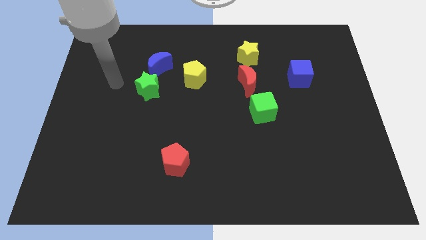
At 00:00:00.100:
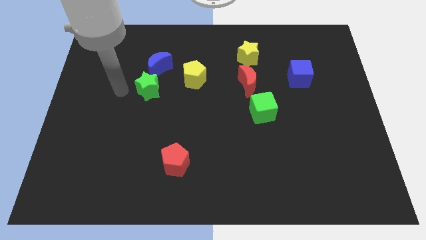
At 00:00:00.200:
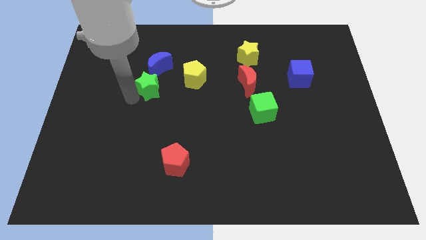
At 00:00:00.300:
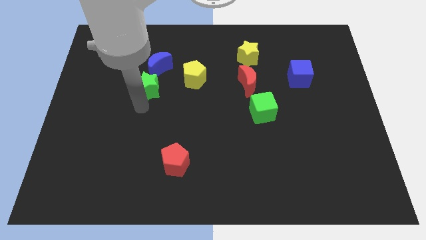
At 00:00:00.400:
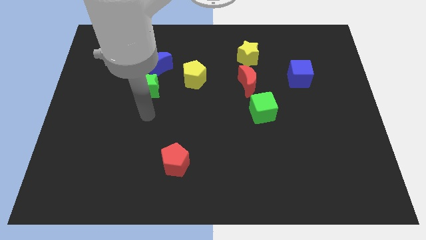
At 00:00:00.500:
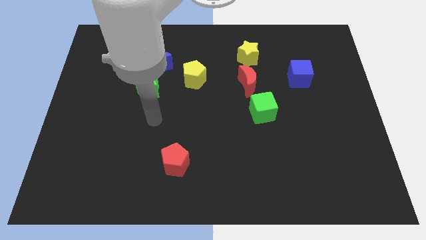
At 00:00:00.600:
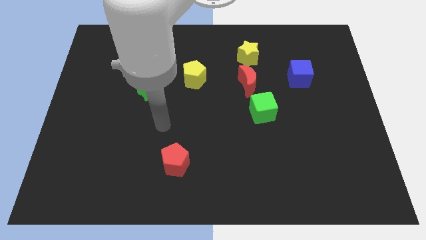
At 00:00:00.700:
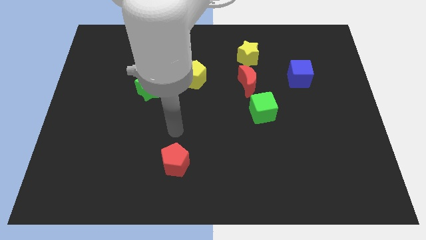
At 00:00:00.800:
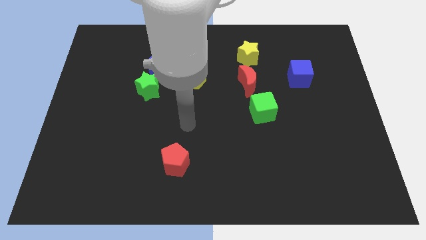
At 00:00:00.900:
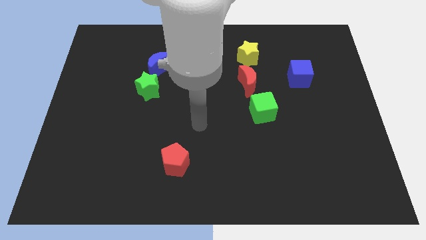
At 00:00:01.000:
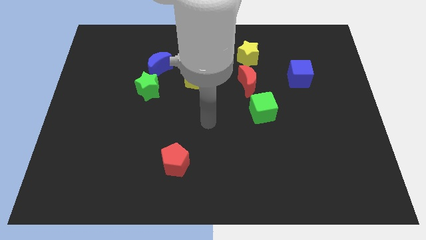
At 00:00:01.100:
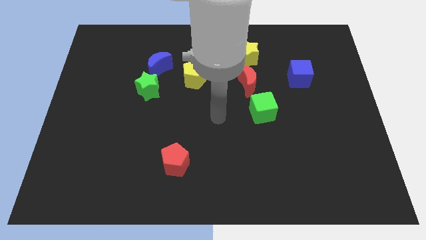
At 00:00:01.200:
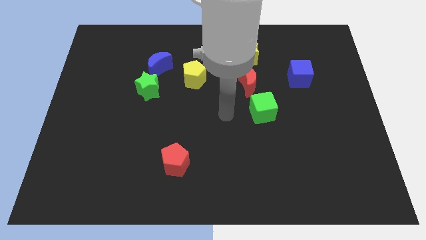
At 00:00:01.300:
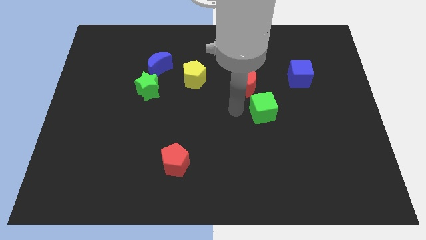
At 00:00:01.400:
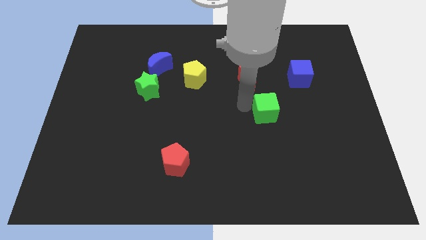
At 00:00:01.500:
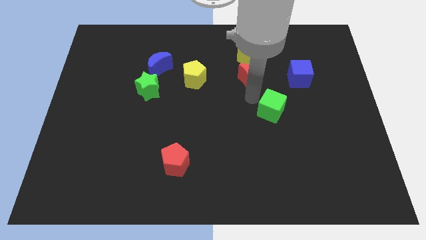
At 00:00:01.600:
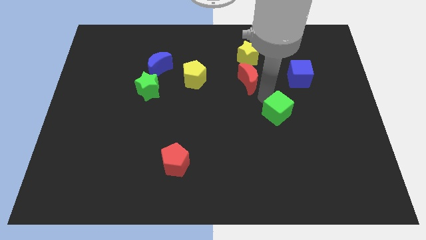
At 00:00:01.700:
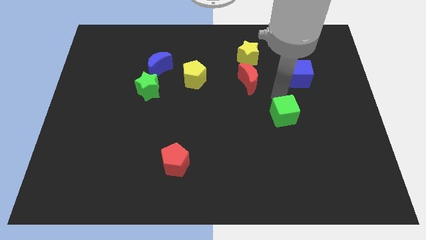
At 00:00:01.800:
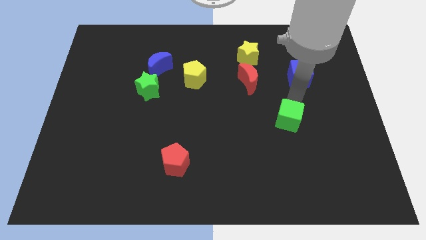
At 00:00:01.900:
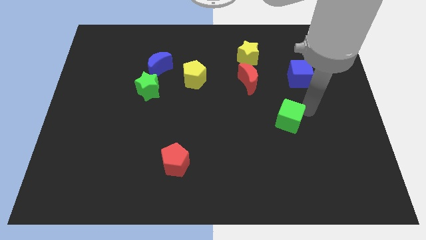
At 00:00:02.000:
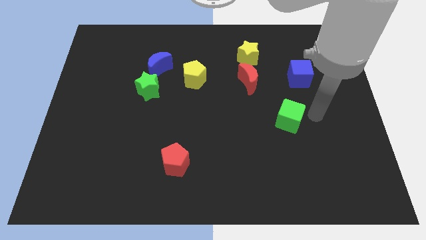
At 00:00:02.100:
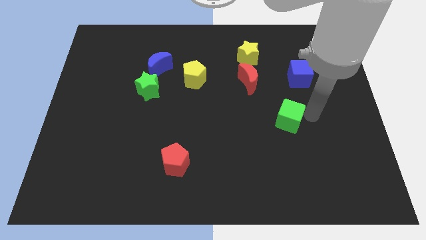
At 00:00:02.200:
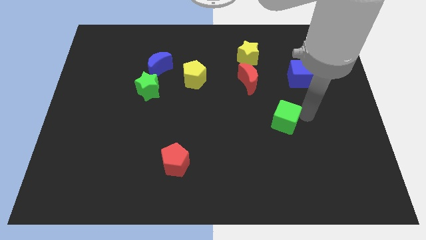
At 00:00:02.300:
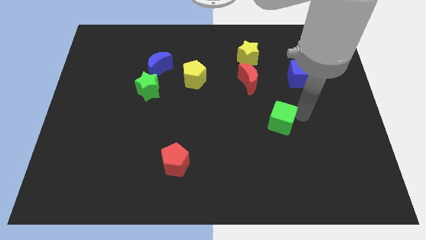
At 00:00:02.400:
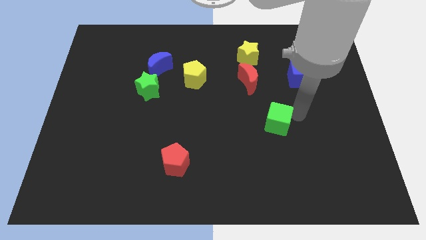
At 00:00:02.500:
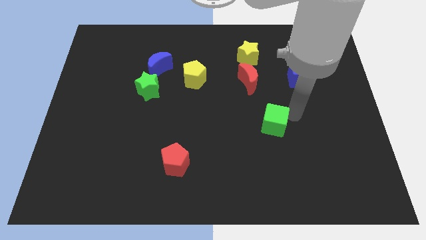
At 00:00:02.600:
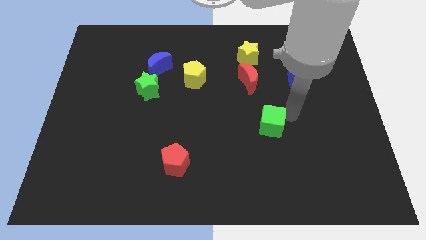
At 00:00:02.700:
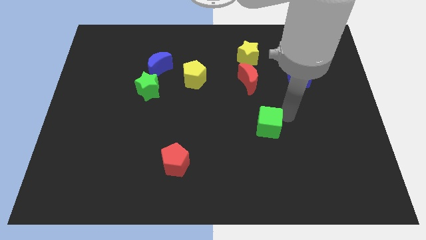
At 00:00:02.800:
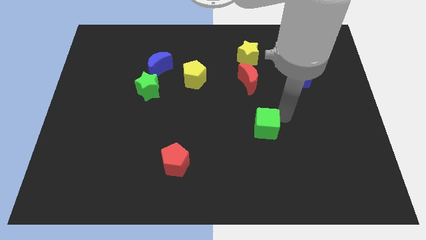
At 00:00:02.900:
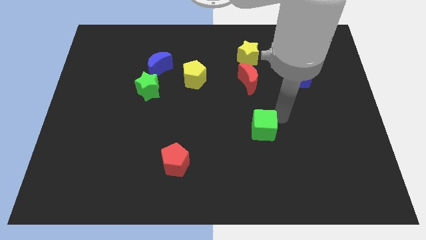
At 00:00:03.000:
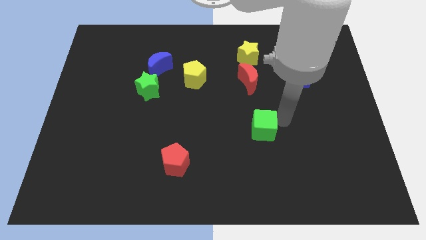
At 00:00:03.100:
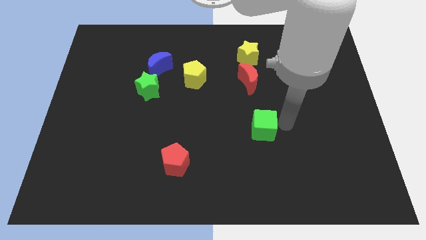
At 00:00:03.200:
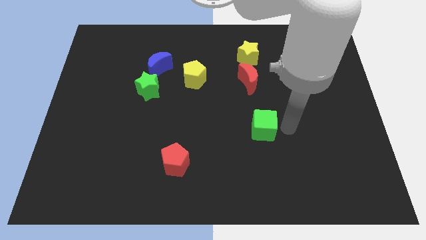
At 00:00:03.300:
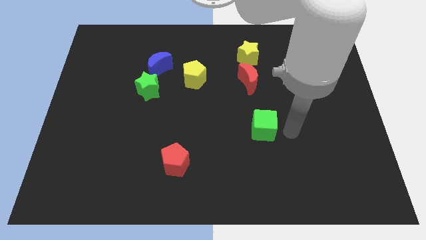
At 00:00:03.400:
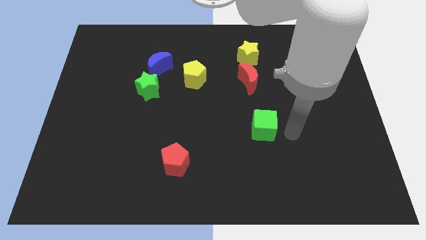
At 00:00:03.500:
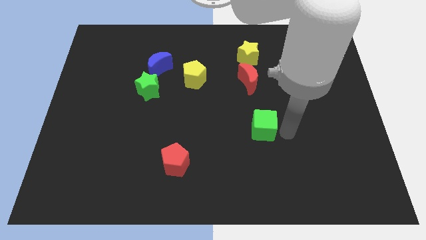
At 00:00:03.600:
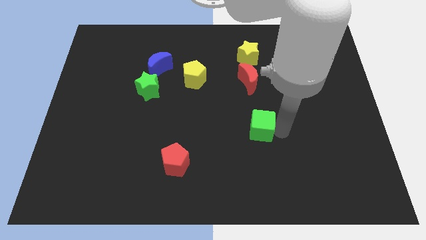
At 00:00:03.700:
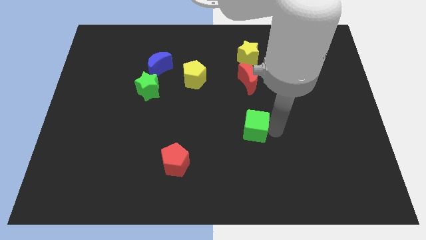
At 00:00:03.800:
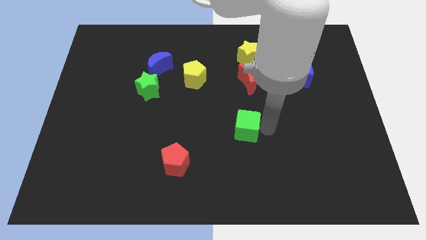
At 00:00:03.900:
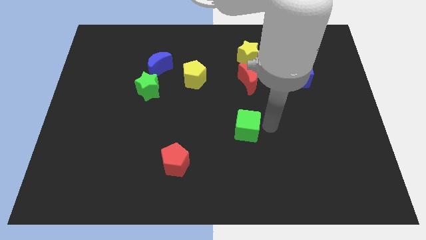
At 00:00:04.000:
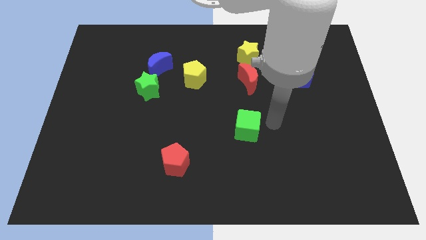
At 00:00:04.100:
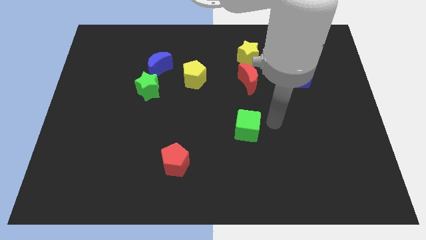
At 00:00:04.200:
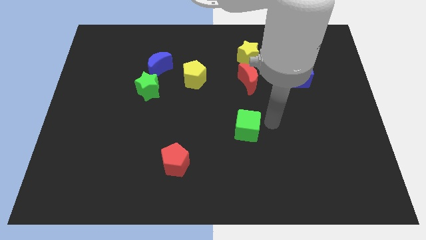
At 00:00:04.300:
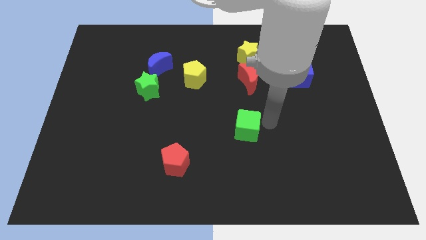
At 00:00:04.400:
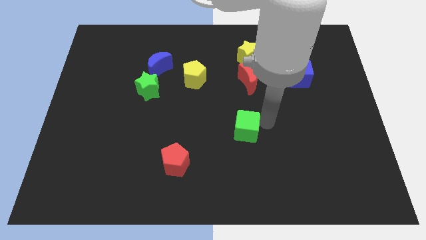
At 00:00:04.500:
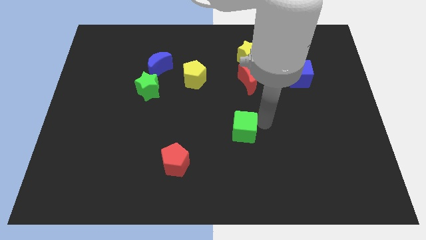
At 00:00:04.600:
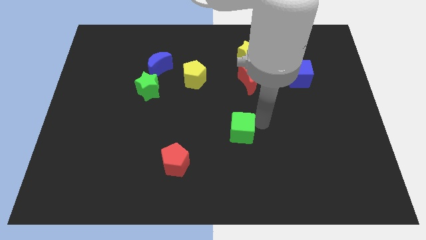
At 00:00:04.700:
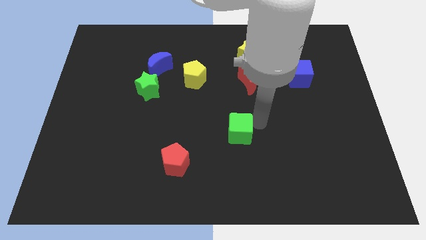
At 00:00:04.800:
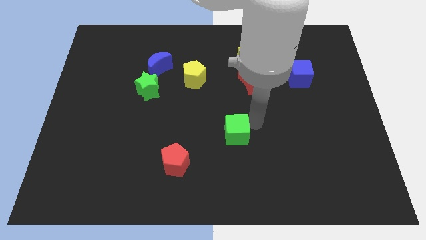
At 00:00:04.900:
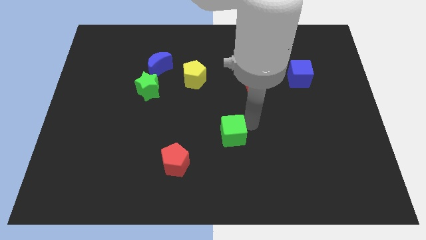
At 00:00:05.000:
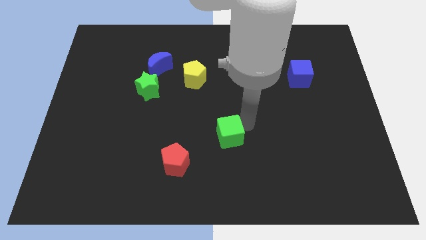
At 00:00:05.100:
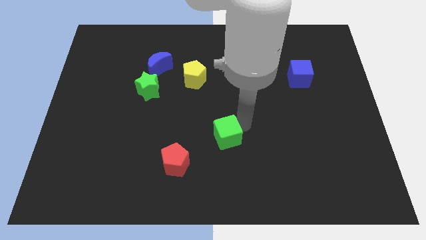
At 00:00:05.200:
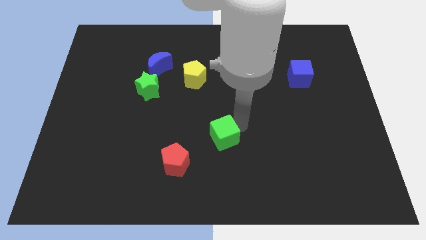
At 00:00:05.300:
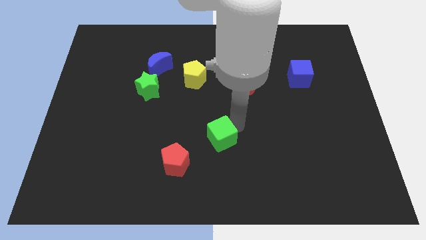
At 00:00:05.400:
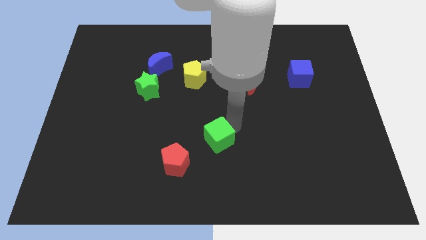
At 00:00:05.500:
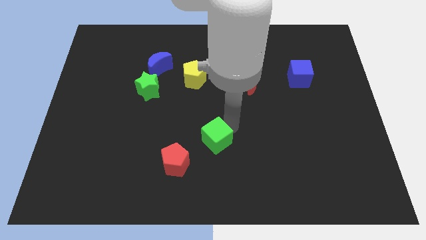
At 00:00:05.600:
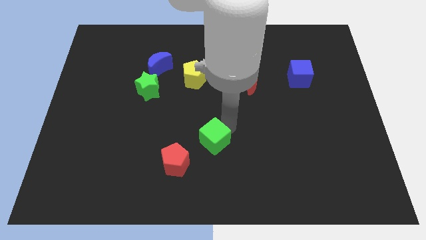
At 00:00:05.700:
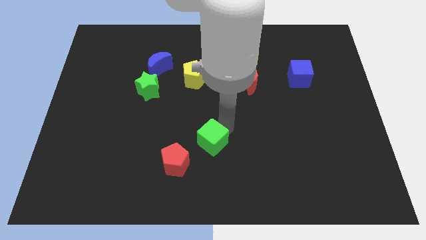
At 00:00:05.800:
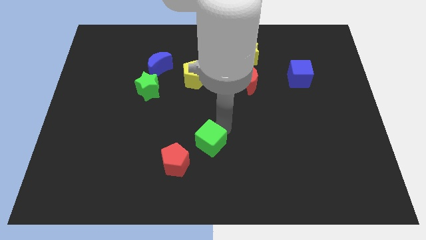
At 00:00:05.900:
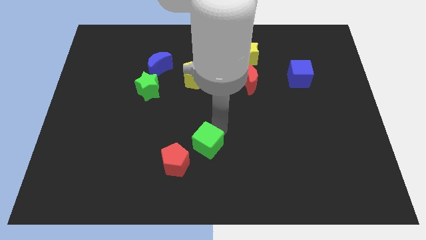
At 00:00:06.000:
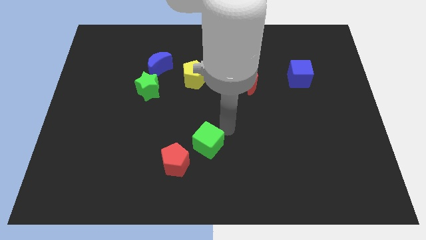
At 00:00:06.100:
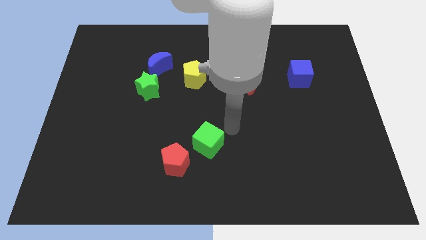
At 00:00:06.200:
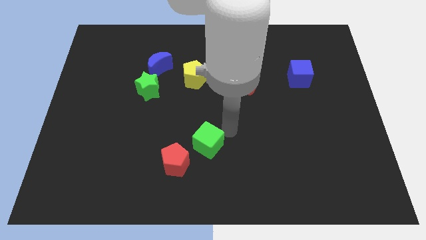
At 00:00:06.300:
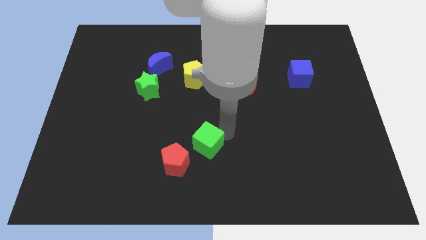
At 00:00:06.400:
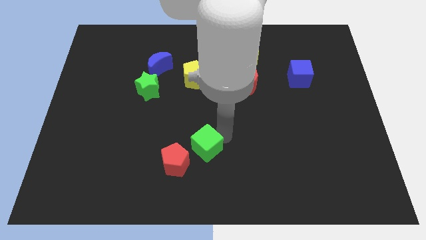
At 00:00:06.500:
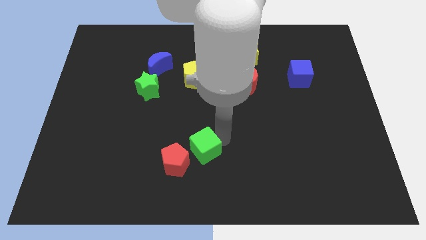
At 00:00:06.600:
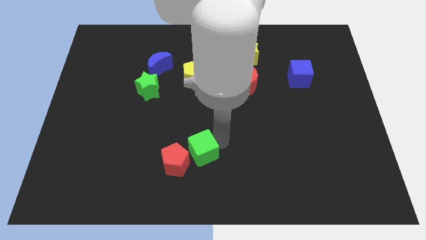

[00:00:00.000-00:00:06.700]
push the green cube to the red pentagon

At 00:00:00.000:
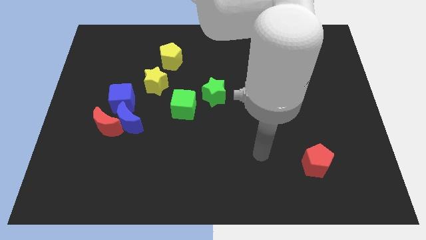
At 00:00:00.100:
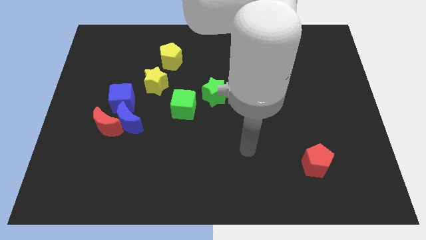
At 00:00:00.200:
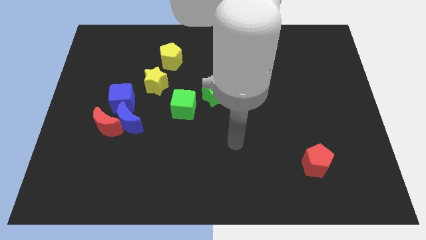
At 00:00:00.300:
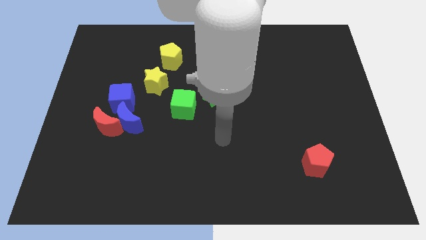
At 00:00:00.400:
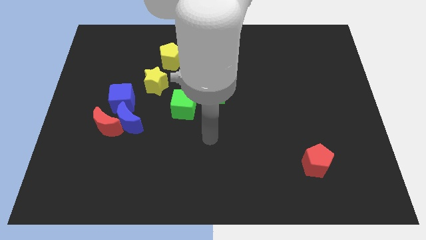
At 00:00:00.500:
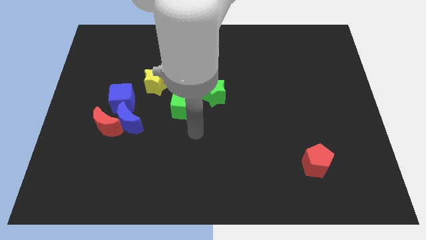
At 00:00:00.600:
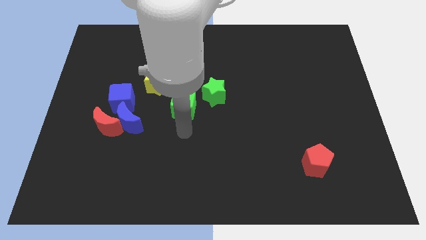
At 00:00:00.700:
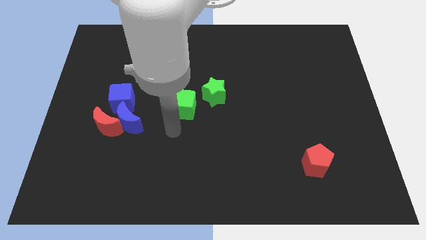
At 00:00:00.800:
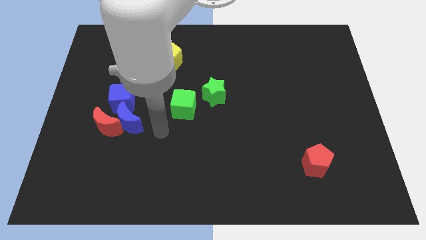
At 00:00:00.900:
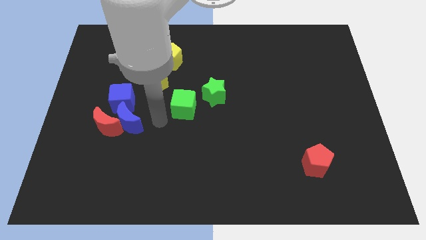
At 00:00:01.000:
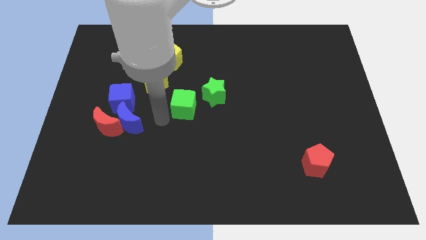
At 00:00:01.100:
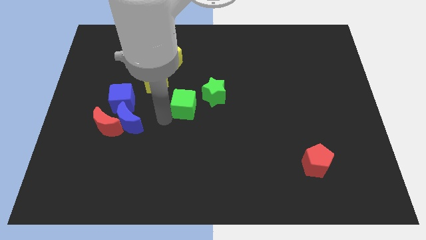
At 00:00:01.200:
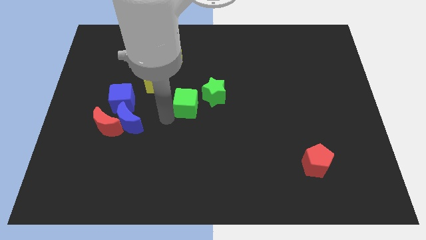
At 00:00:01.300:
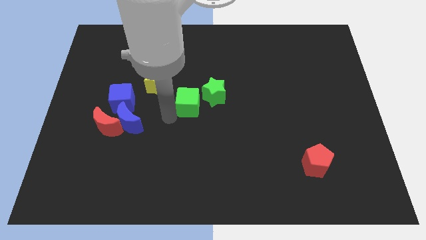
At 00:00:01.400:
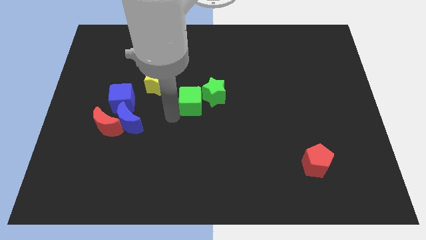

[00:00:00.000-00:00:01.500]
put the green cube towards the green star
